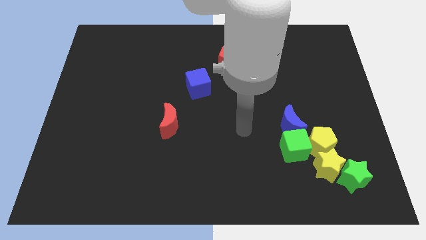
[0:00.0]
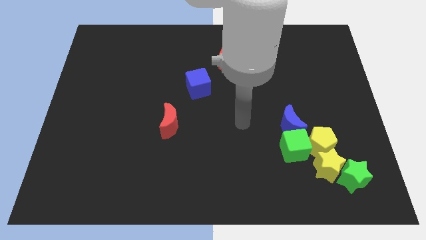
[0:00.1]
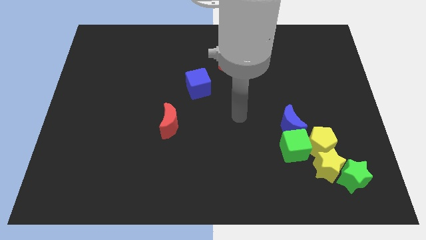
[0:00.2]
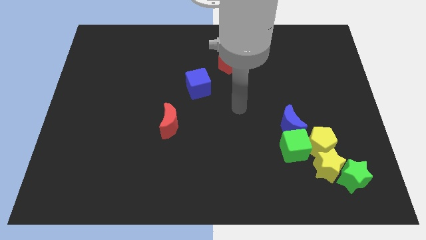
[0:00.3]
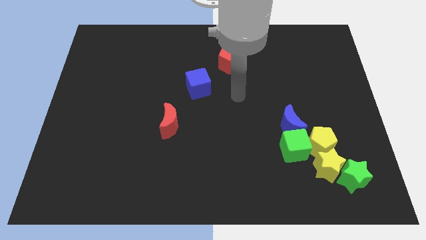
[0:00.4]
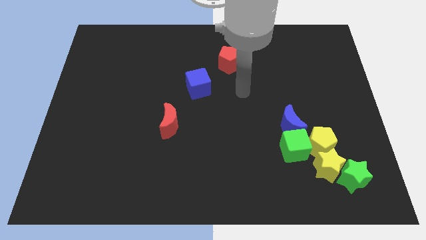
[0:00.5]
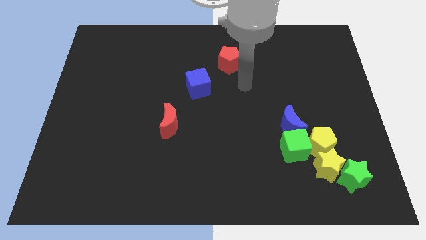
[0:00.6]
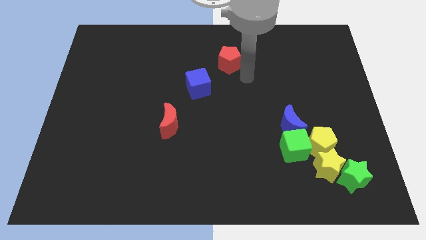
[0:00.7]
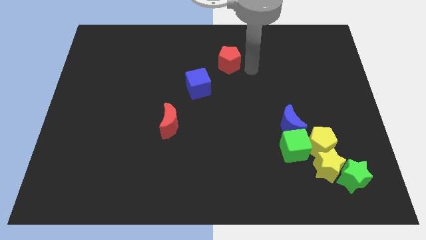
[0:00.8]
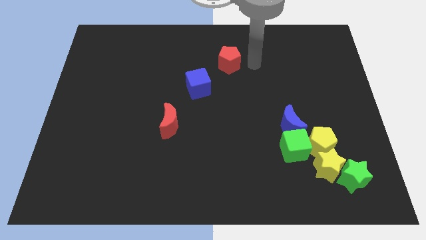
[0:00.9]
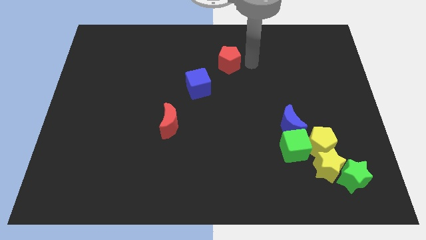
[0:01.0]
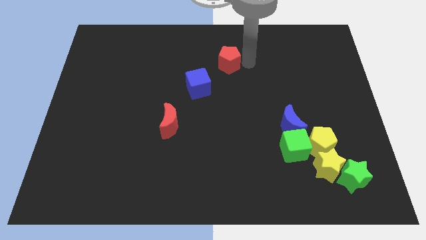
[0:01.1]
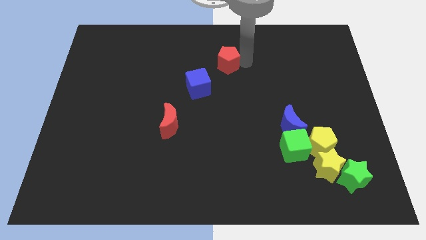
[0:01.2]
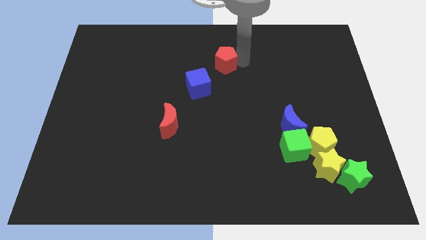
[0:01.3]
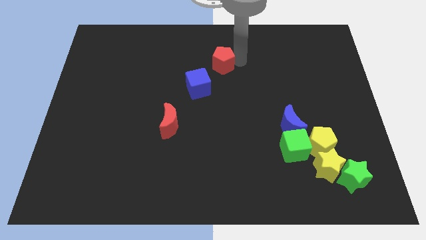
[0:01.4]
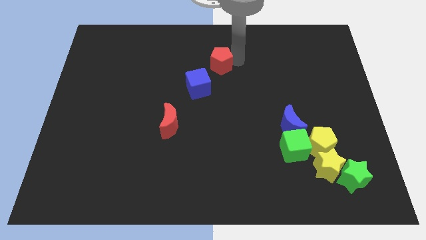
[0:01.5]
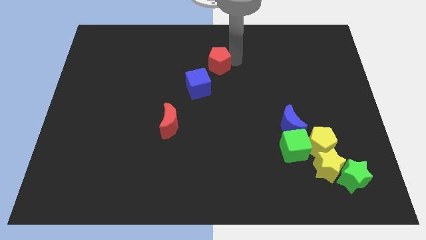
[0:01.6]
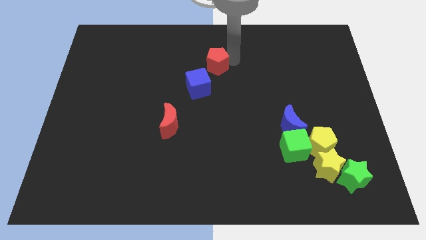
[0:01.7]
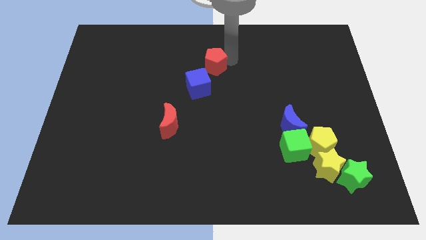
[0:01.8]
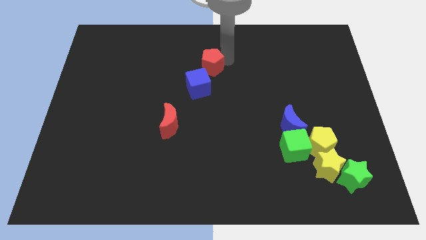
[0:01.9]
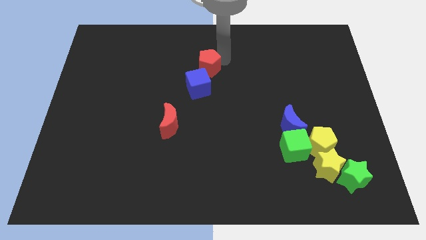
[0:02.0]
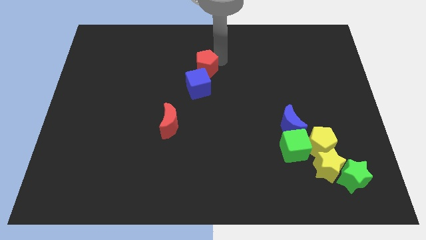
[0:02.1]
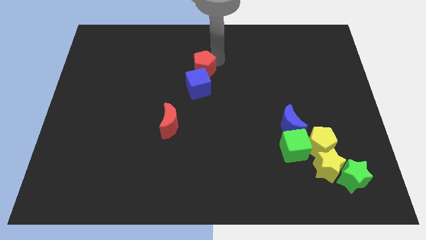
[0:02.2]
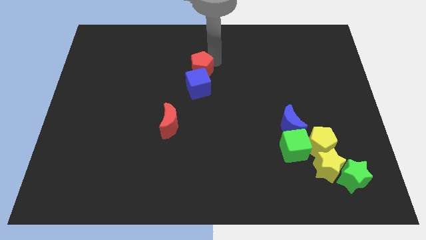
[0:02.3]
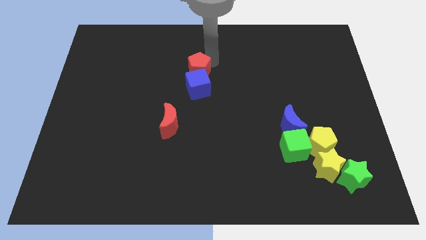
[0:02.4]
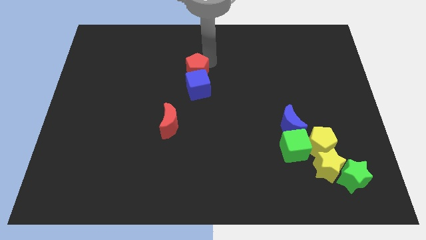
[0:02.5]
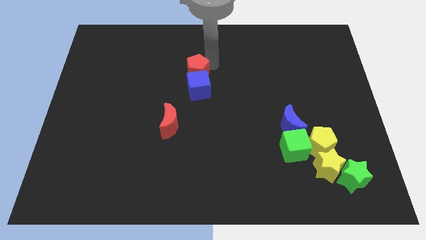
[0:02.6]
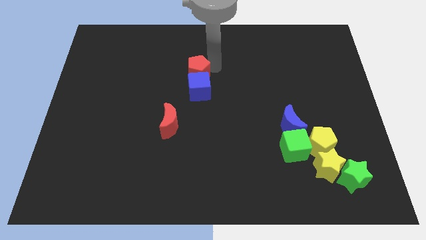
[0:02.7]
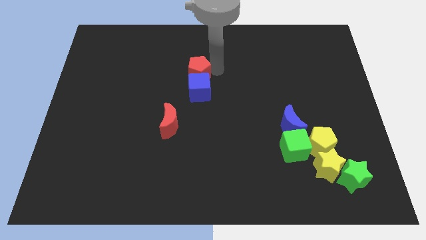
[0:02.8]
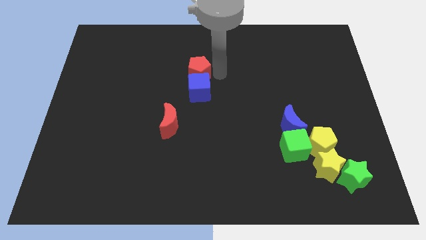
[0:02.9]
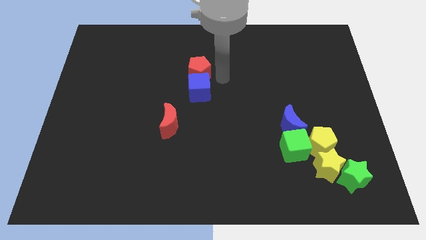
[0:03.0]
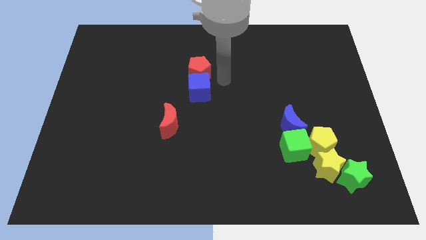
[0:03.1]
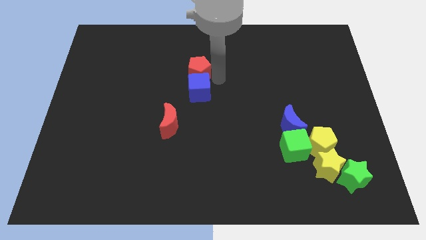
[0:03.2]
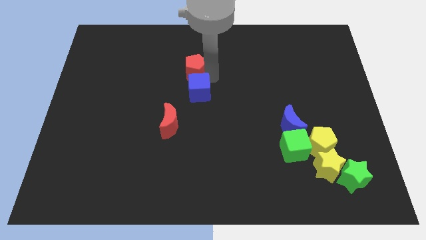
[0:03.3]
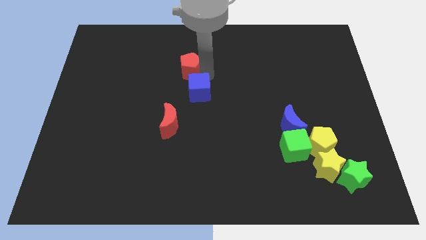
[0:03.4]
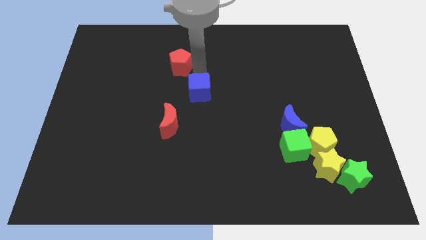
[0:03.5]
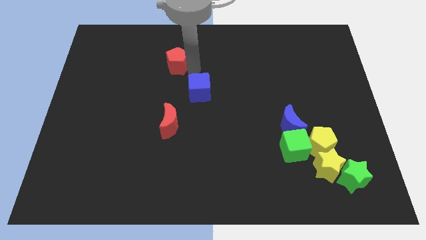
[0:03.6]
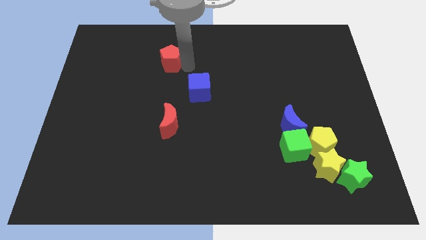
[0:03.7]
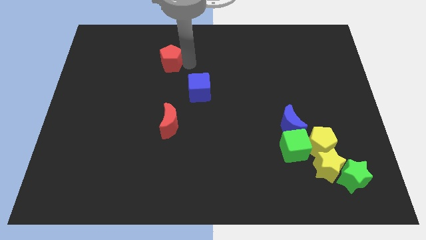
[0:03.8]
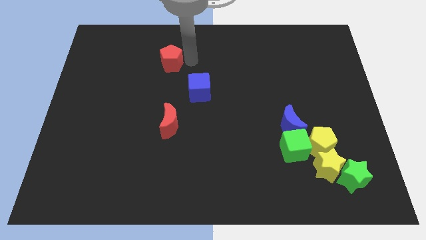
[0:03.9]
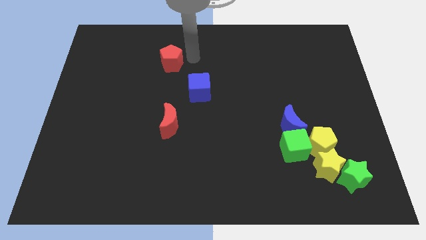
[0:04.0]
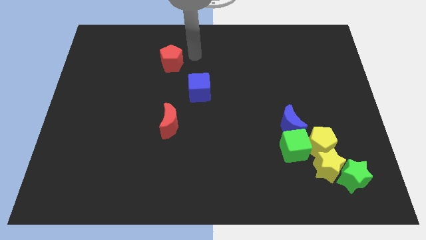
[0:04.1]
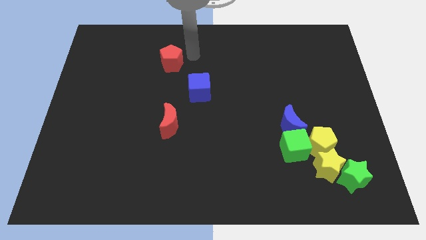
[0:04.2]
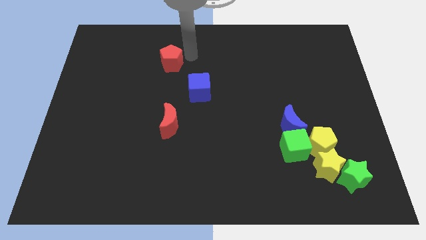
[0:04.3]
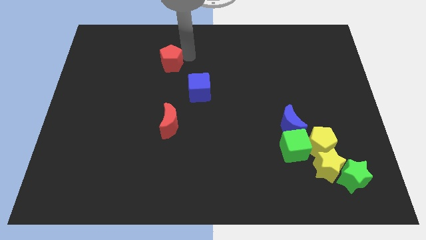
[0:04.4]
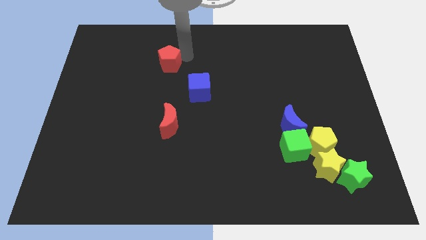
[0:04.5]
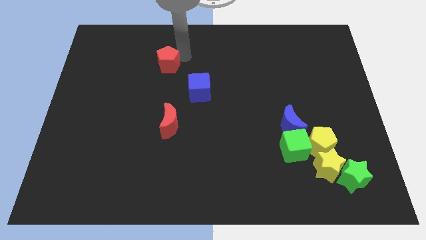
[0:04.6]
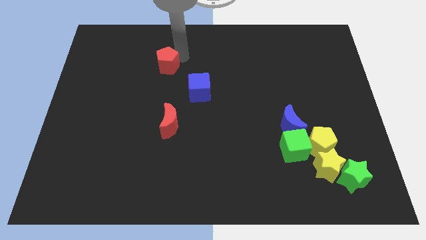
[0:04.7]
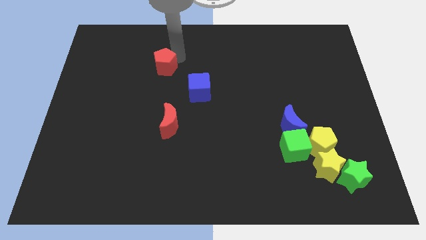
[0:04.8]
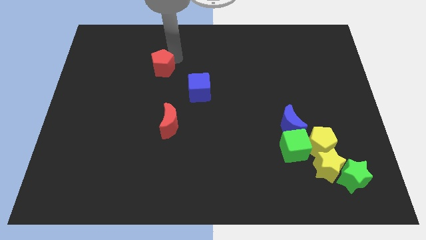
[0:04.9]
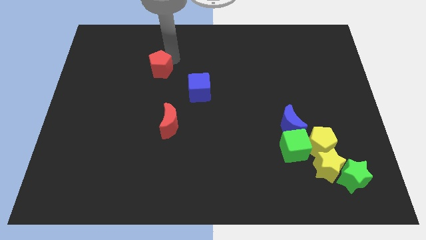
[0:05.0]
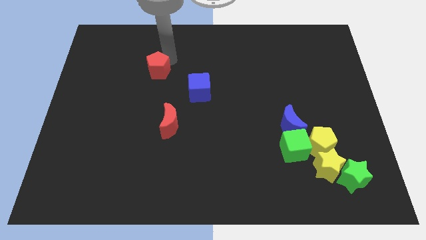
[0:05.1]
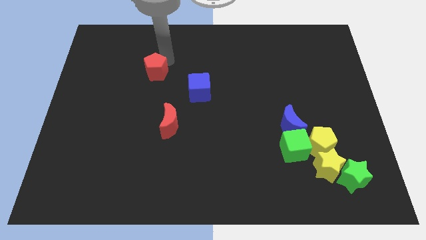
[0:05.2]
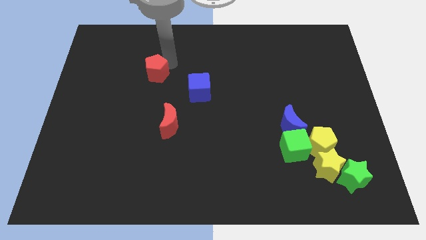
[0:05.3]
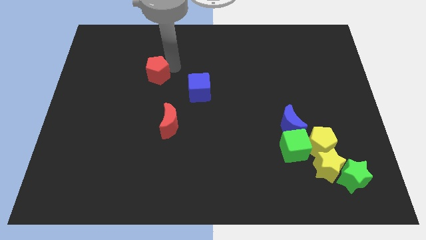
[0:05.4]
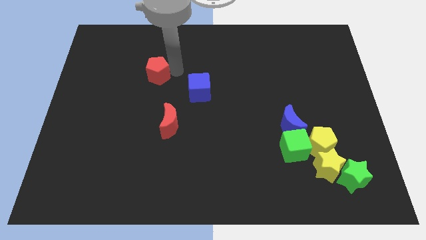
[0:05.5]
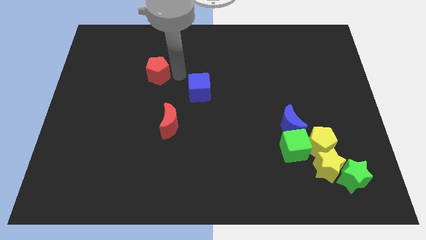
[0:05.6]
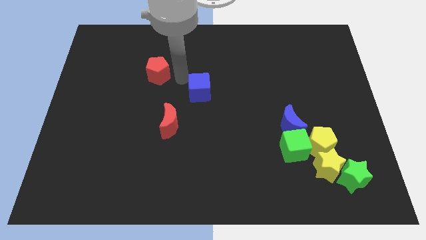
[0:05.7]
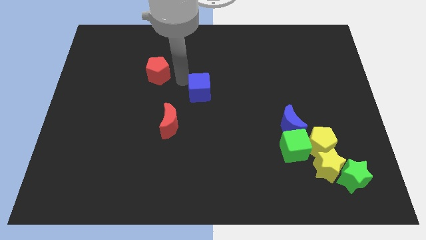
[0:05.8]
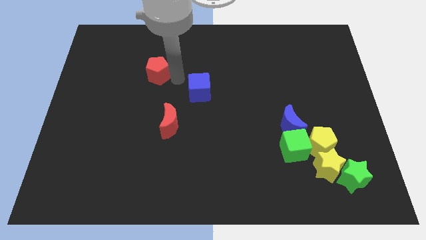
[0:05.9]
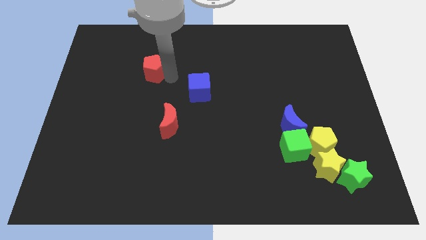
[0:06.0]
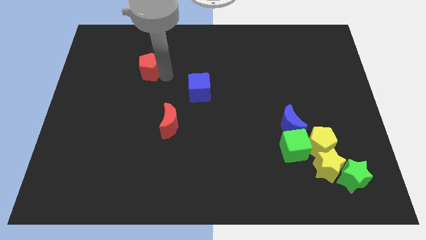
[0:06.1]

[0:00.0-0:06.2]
move the red pentagon to the left

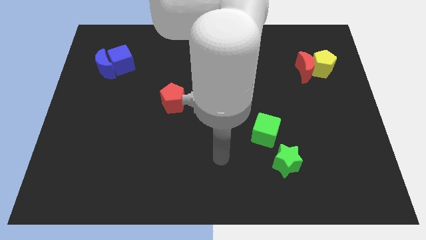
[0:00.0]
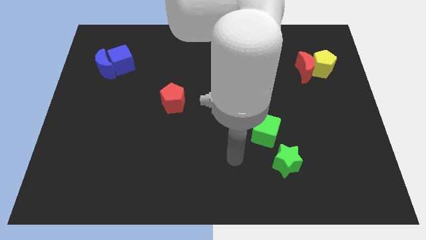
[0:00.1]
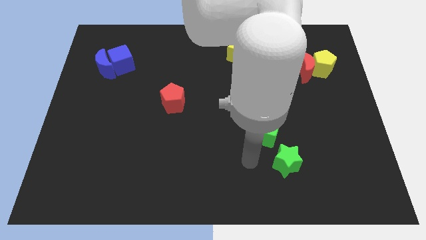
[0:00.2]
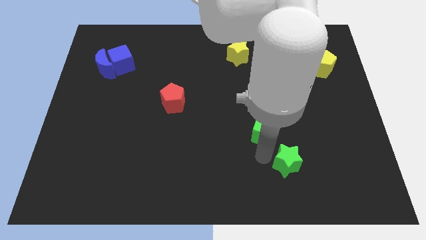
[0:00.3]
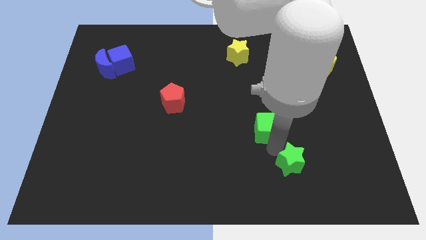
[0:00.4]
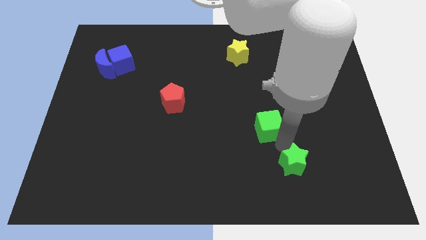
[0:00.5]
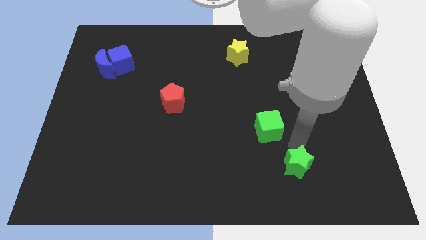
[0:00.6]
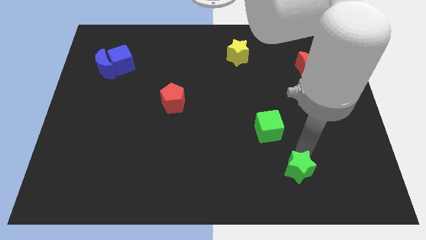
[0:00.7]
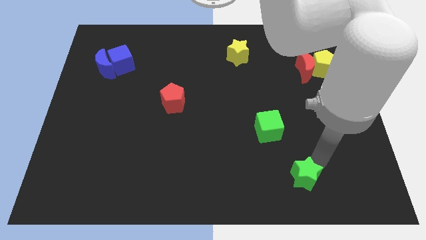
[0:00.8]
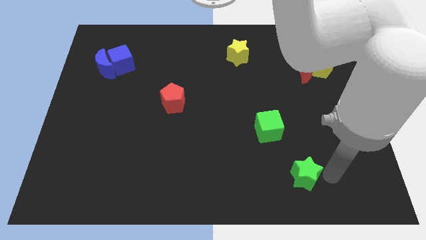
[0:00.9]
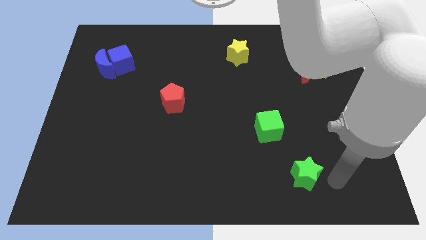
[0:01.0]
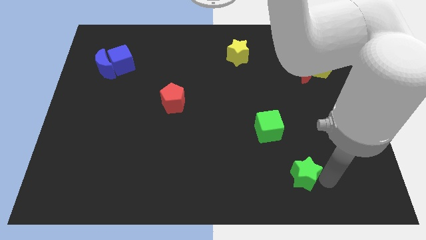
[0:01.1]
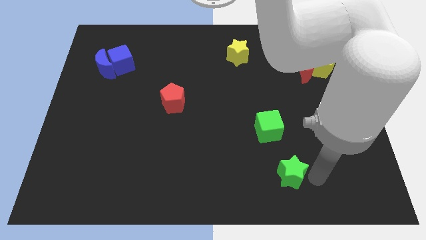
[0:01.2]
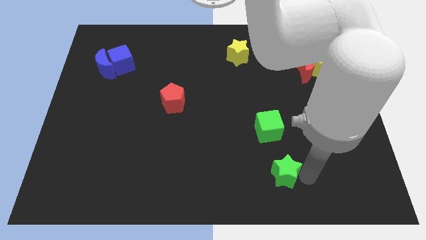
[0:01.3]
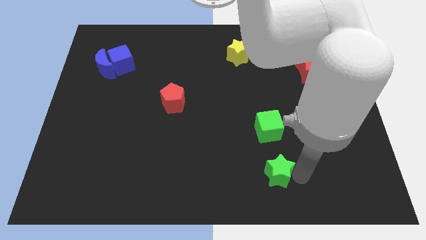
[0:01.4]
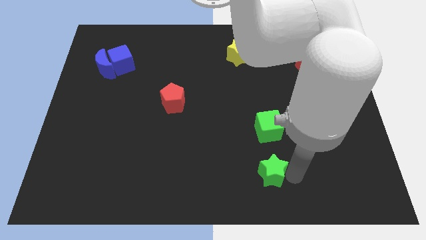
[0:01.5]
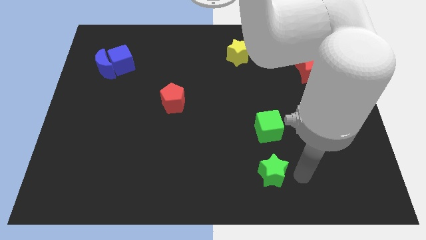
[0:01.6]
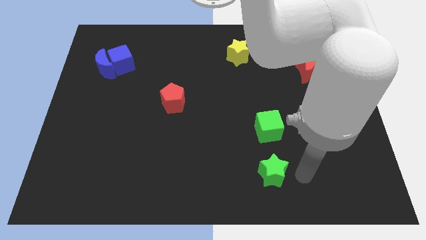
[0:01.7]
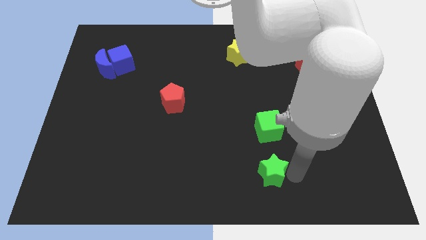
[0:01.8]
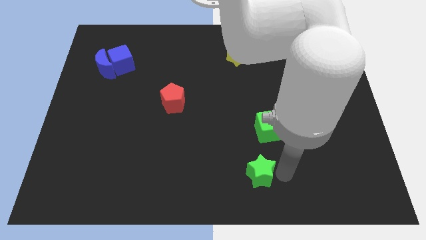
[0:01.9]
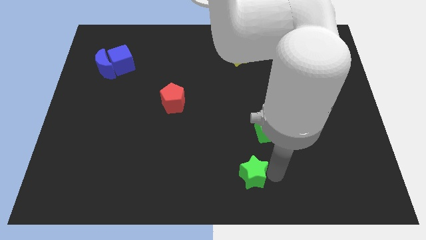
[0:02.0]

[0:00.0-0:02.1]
slightly move the green star to the left
